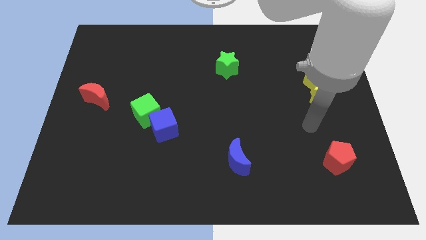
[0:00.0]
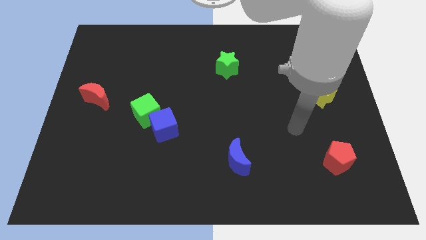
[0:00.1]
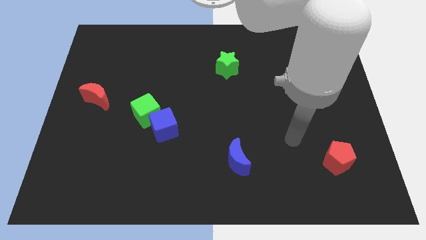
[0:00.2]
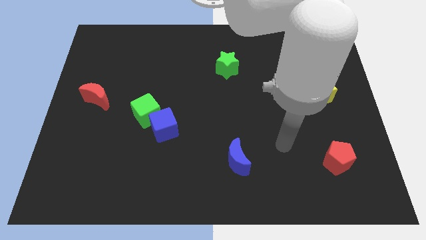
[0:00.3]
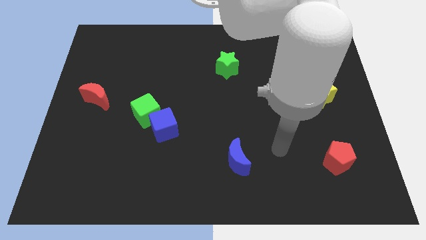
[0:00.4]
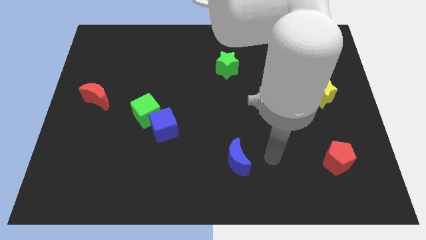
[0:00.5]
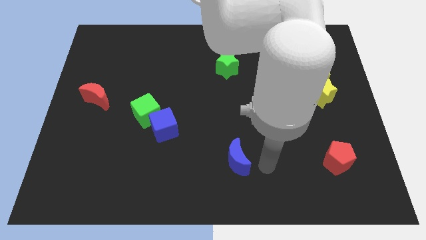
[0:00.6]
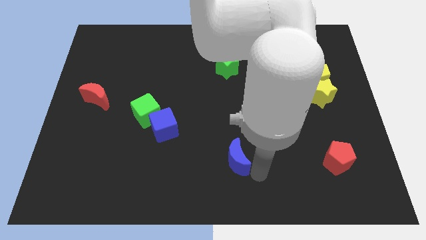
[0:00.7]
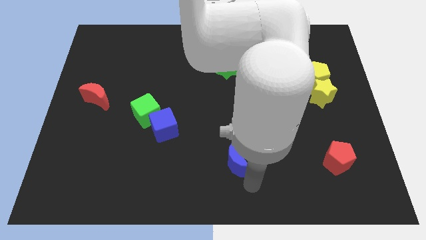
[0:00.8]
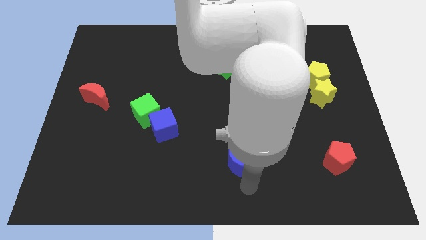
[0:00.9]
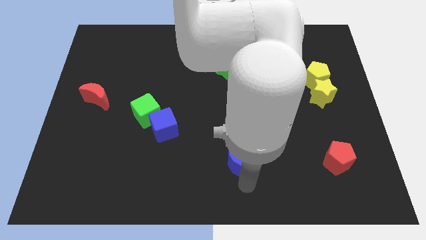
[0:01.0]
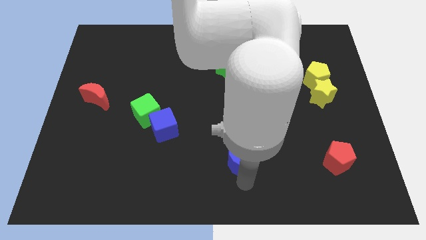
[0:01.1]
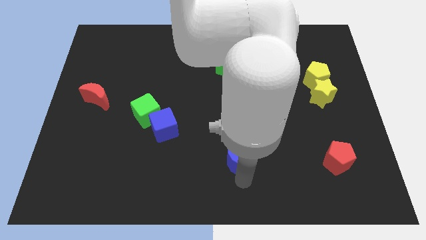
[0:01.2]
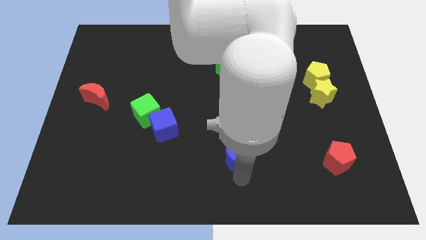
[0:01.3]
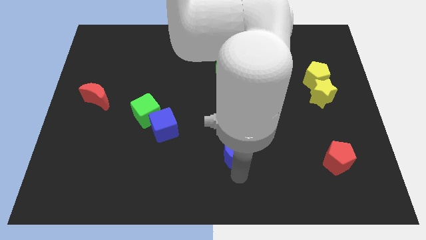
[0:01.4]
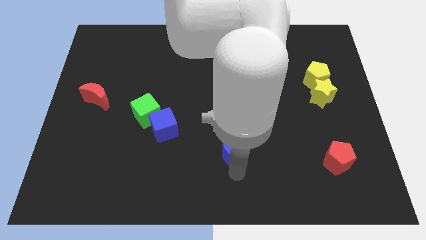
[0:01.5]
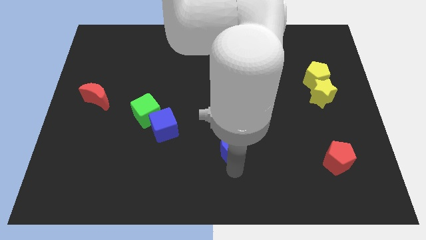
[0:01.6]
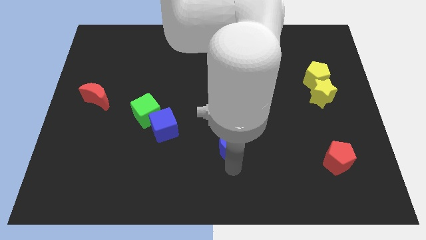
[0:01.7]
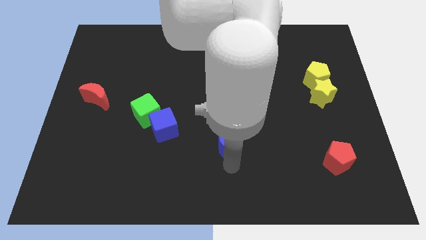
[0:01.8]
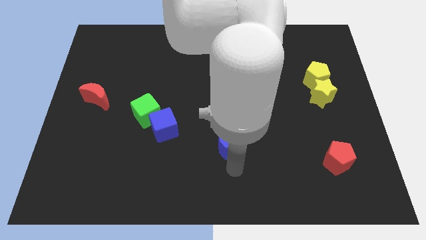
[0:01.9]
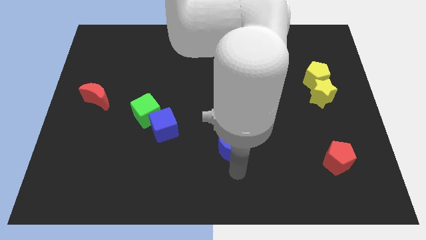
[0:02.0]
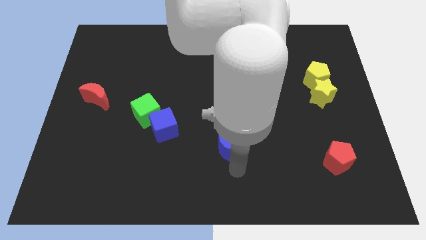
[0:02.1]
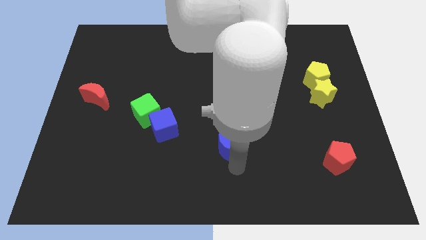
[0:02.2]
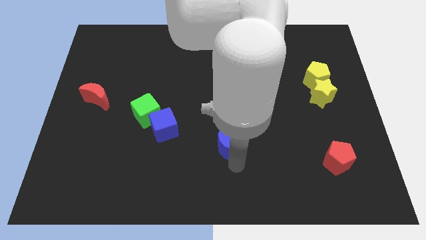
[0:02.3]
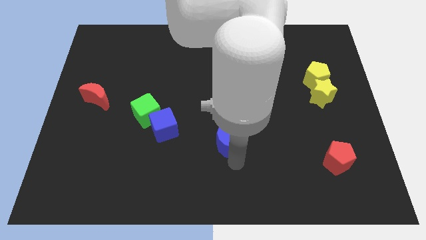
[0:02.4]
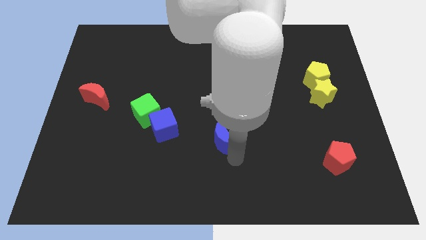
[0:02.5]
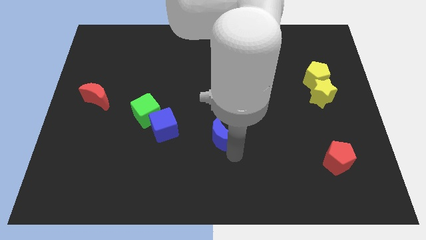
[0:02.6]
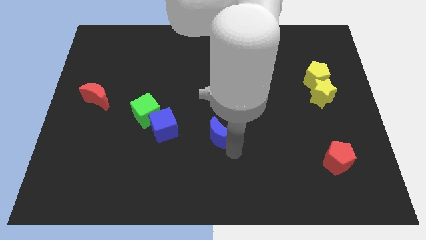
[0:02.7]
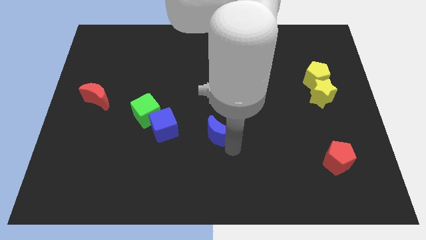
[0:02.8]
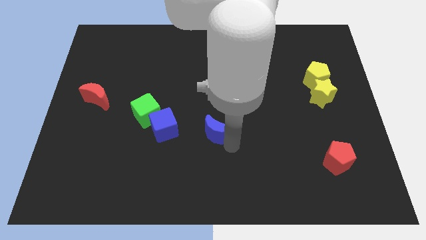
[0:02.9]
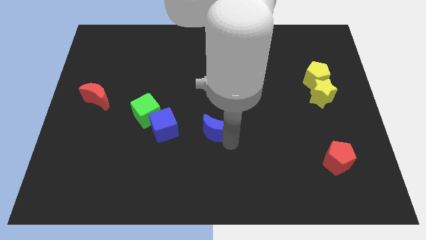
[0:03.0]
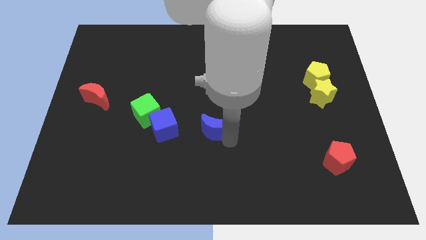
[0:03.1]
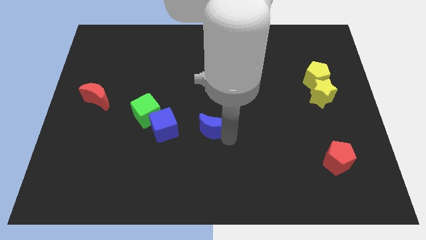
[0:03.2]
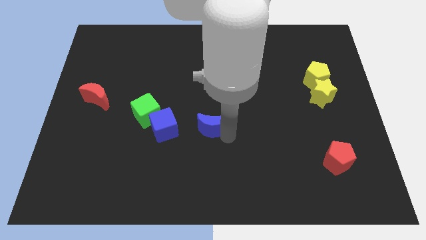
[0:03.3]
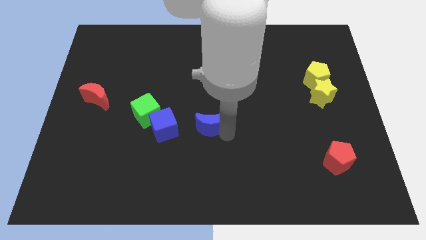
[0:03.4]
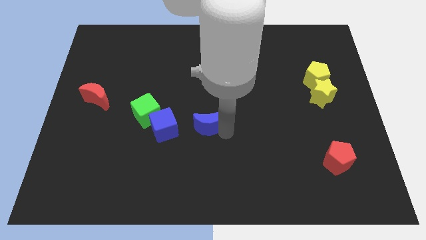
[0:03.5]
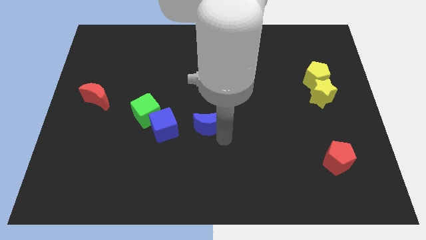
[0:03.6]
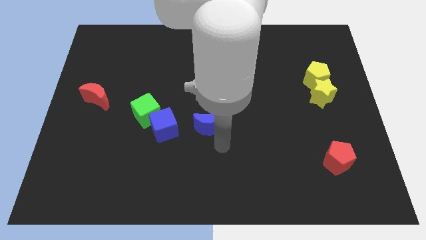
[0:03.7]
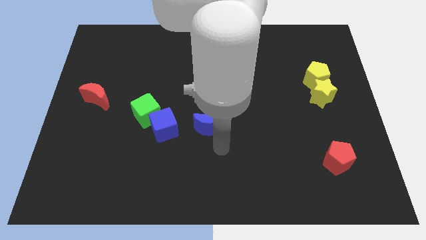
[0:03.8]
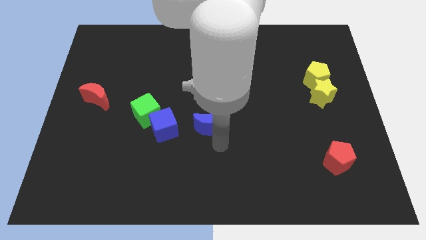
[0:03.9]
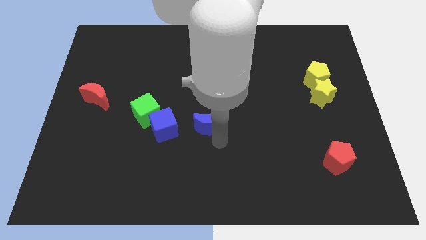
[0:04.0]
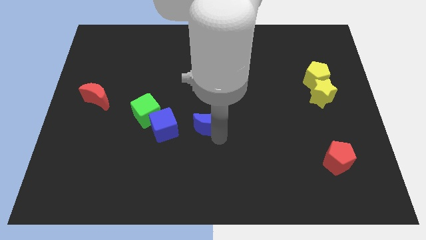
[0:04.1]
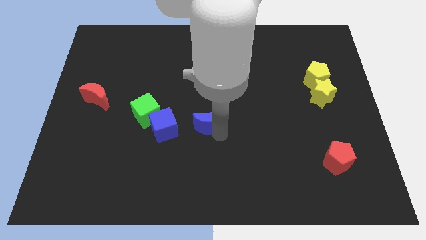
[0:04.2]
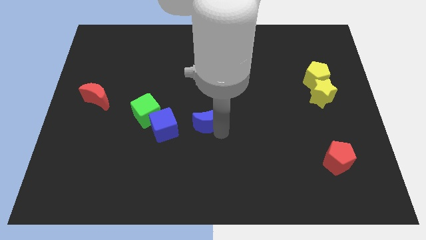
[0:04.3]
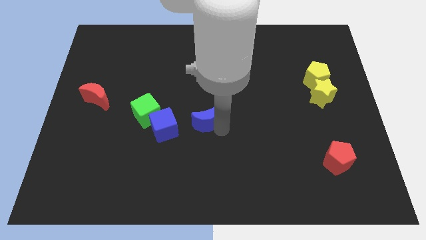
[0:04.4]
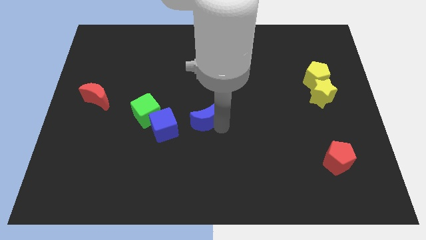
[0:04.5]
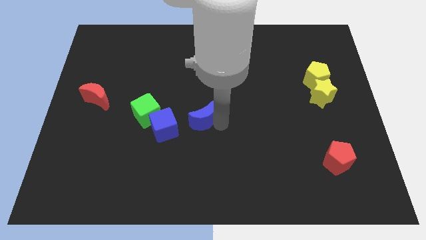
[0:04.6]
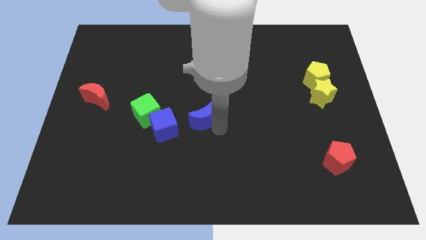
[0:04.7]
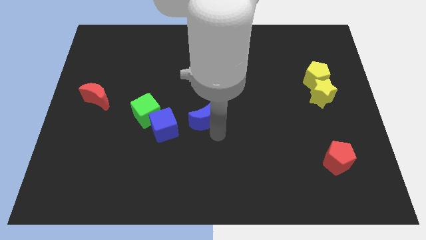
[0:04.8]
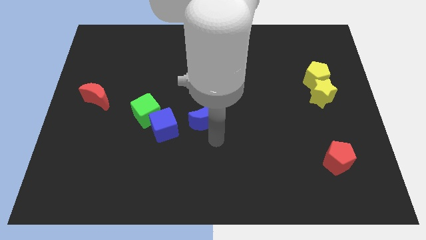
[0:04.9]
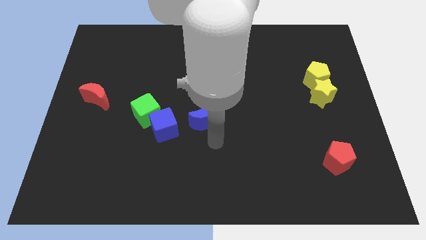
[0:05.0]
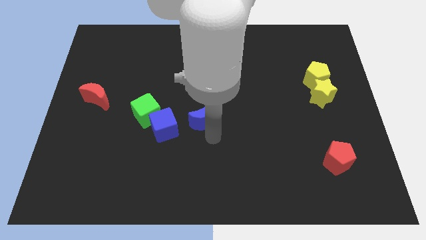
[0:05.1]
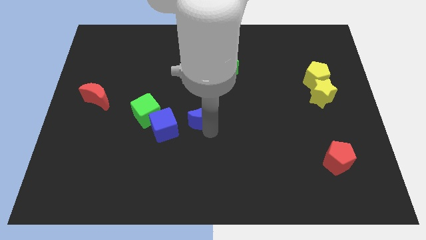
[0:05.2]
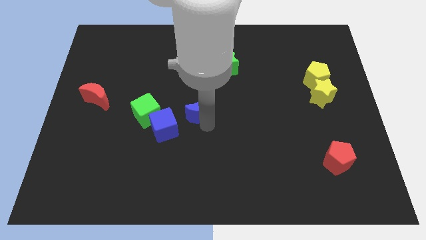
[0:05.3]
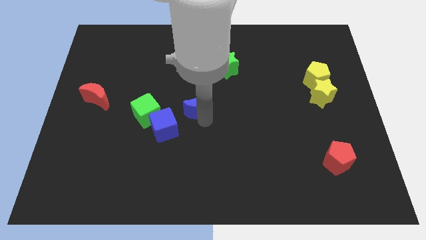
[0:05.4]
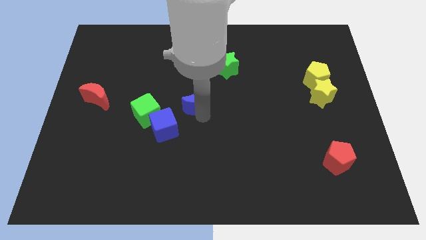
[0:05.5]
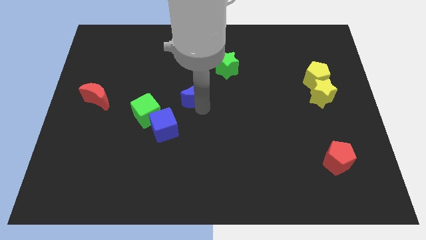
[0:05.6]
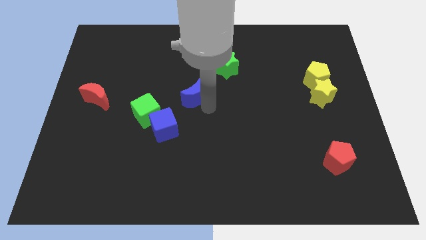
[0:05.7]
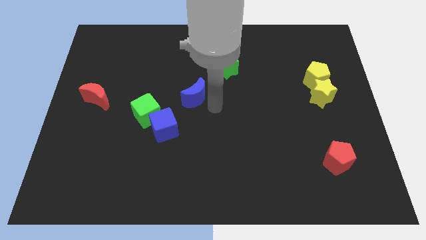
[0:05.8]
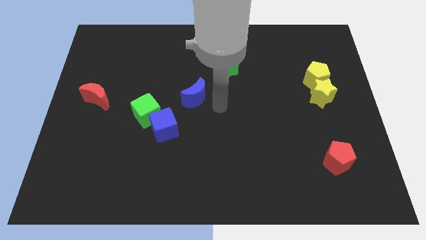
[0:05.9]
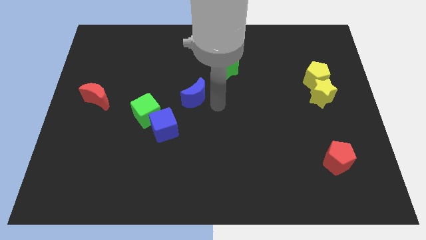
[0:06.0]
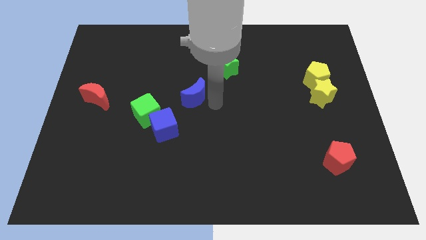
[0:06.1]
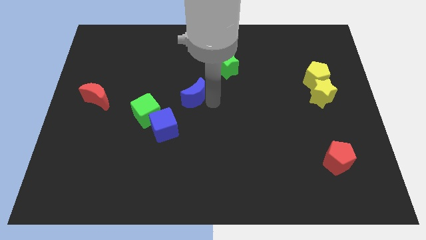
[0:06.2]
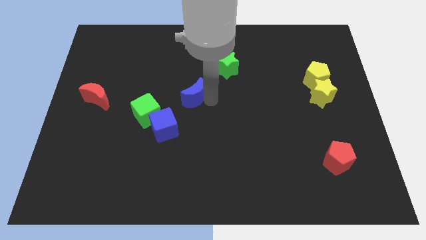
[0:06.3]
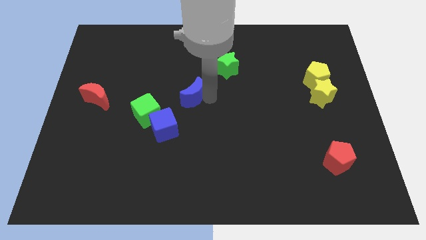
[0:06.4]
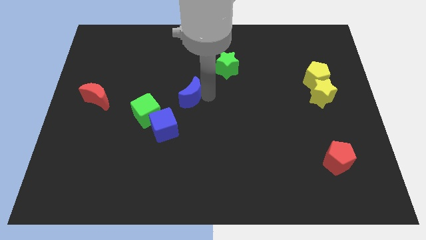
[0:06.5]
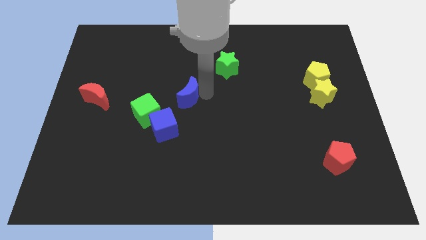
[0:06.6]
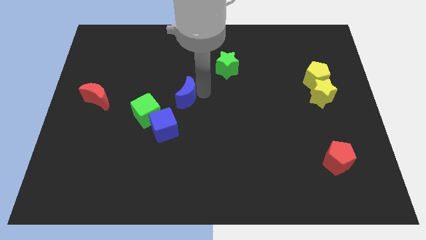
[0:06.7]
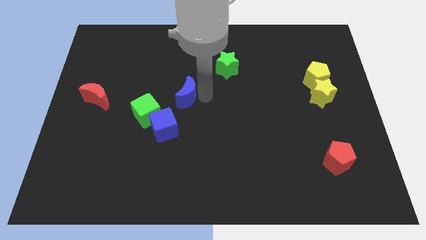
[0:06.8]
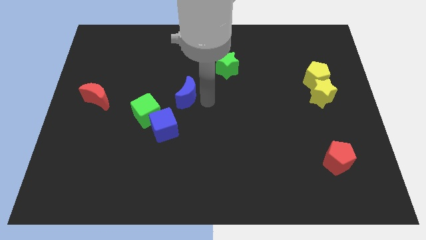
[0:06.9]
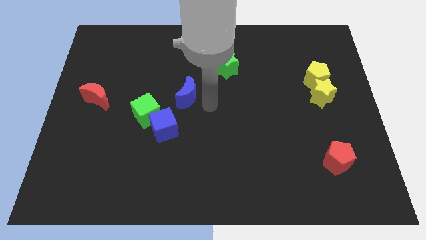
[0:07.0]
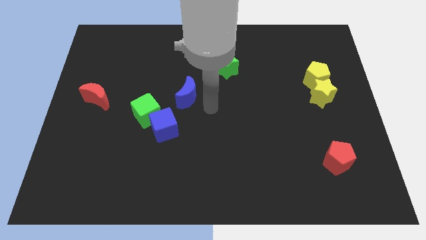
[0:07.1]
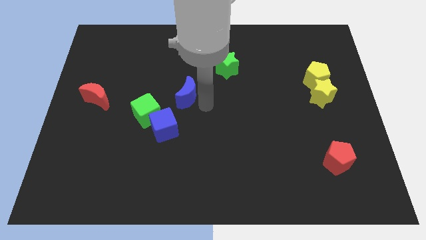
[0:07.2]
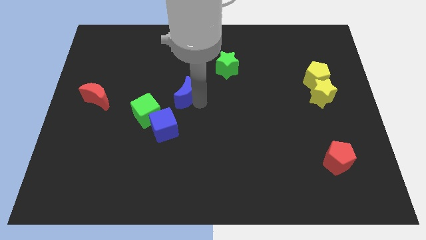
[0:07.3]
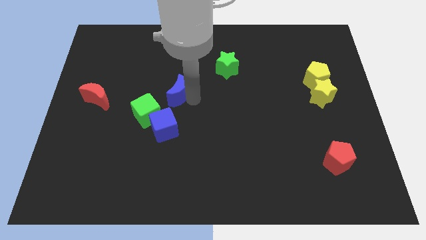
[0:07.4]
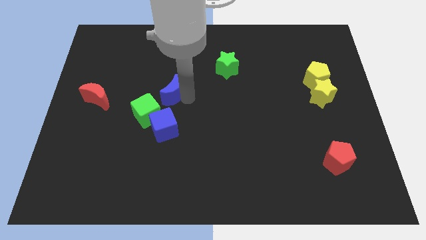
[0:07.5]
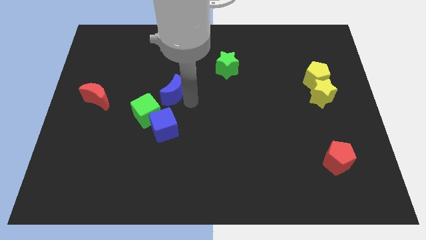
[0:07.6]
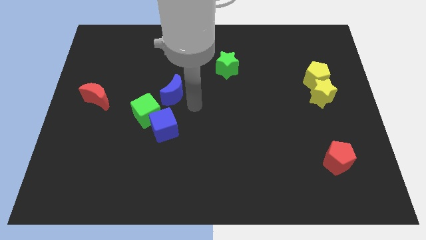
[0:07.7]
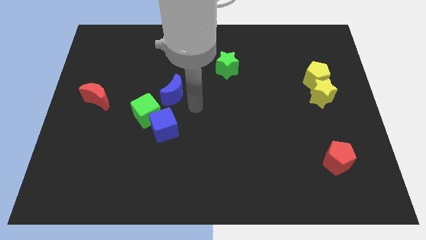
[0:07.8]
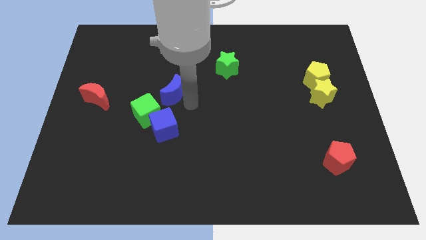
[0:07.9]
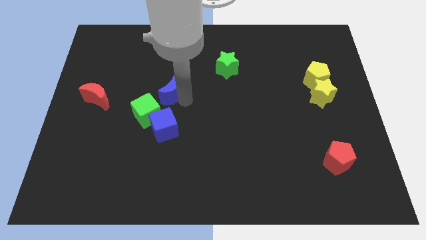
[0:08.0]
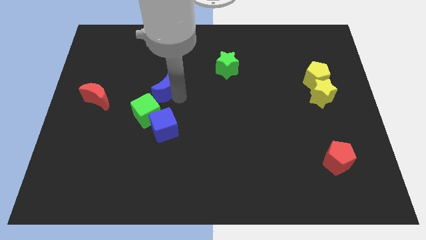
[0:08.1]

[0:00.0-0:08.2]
slide the blue moon above the green cube
